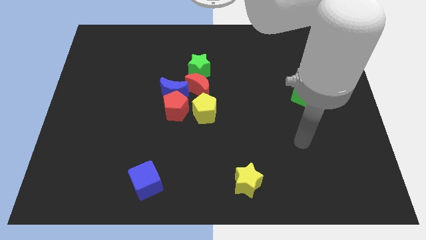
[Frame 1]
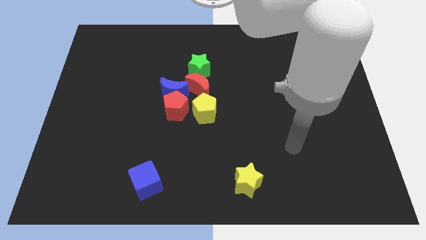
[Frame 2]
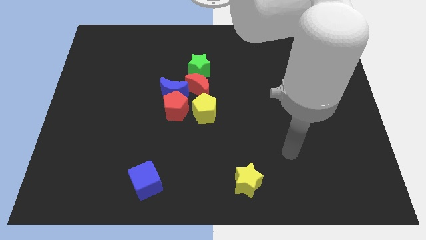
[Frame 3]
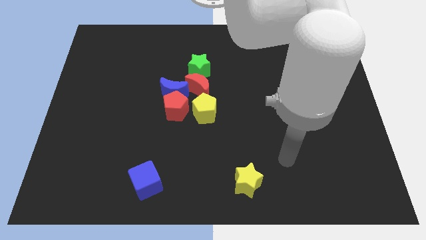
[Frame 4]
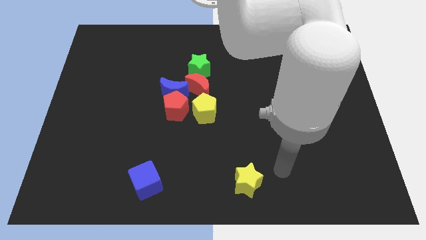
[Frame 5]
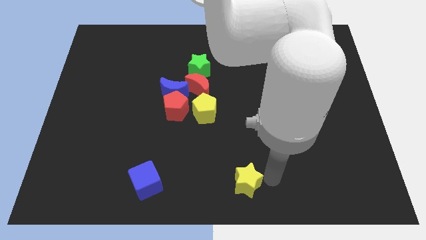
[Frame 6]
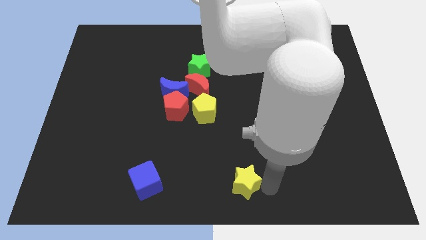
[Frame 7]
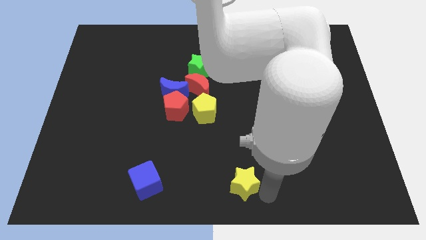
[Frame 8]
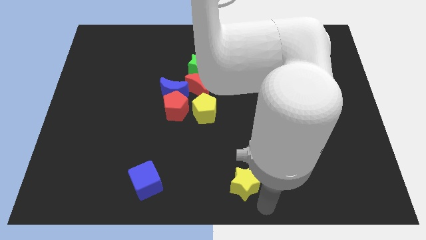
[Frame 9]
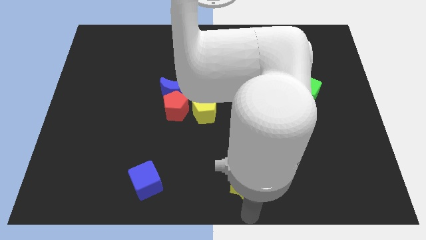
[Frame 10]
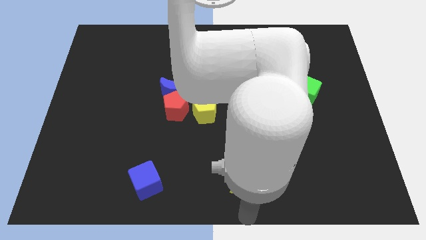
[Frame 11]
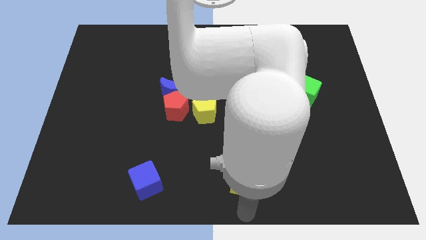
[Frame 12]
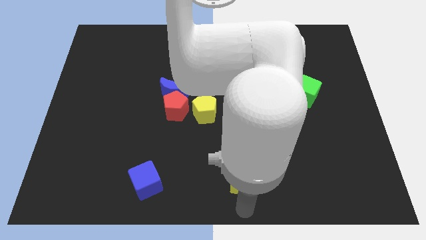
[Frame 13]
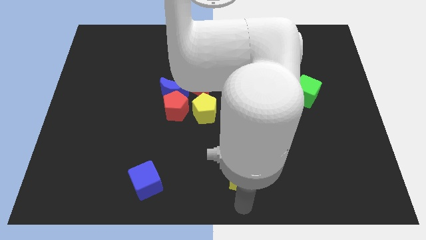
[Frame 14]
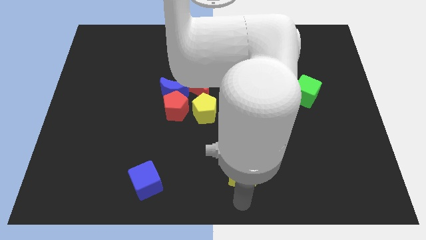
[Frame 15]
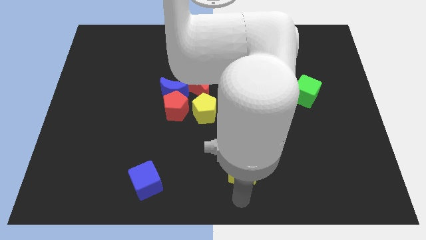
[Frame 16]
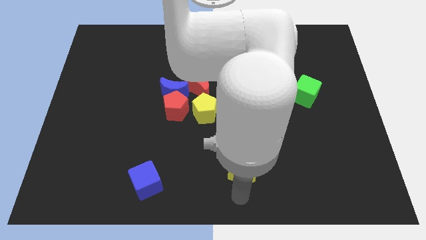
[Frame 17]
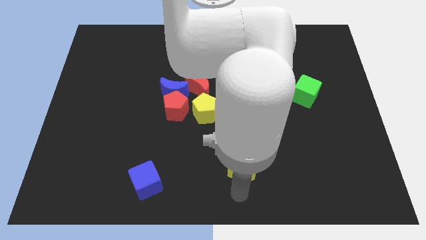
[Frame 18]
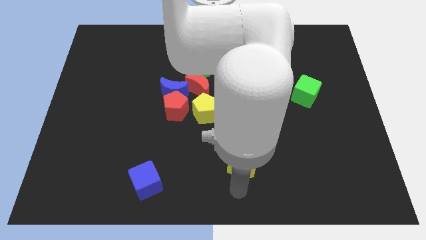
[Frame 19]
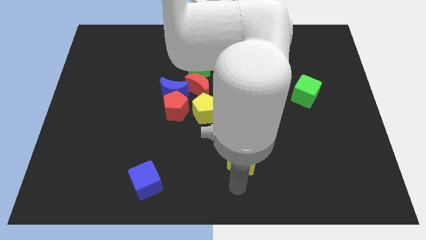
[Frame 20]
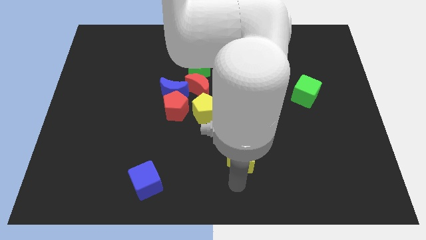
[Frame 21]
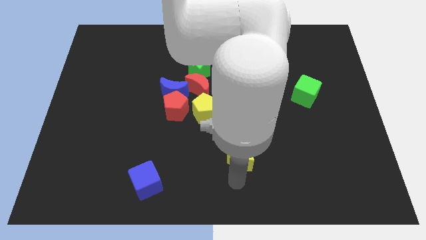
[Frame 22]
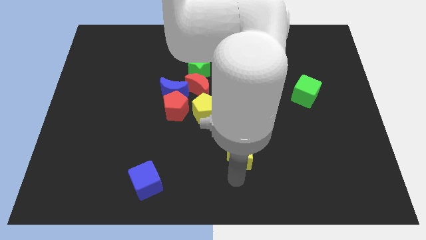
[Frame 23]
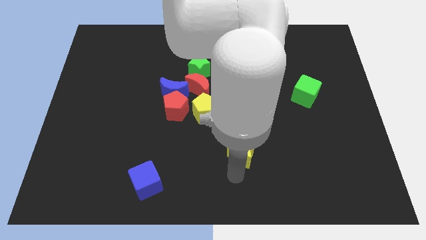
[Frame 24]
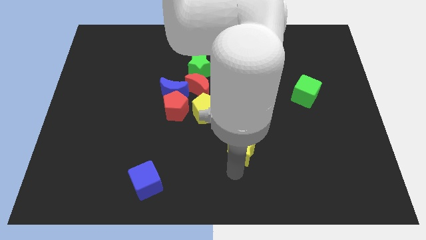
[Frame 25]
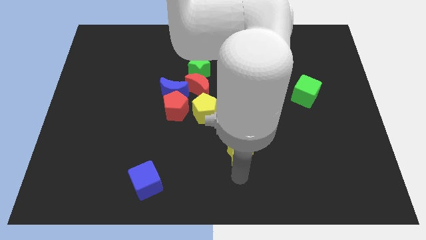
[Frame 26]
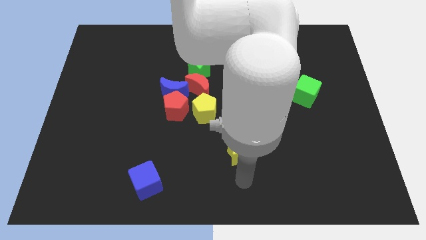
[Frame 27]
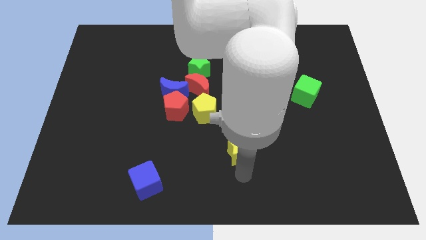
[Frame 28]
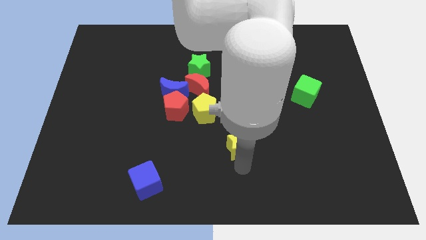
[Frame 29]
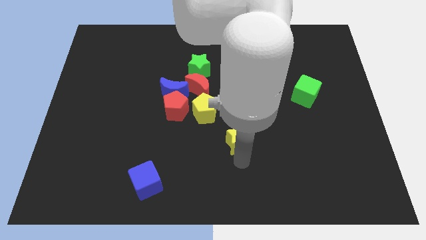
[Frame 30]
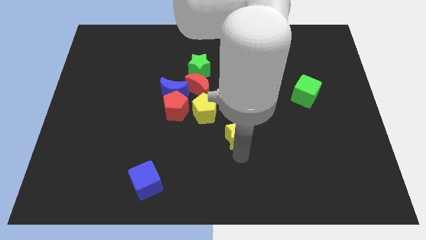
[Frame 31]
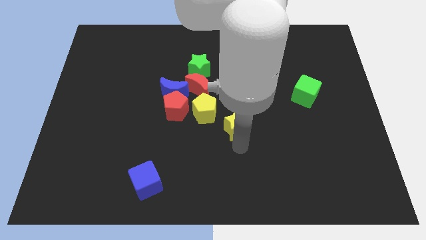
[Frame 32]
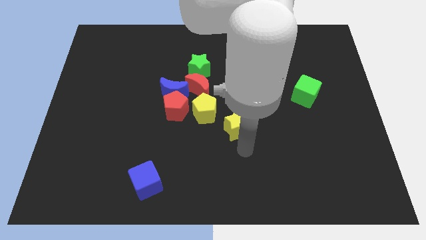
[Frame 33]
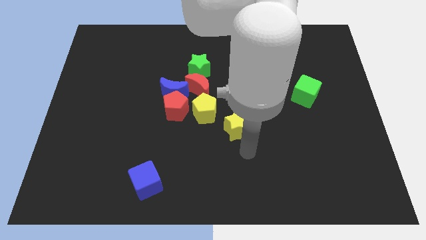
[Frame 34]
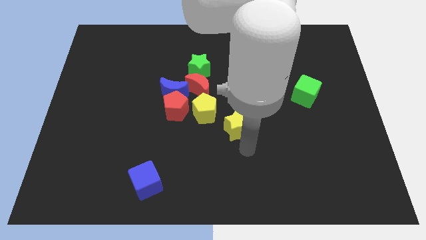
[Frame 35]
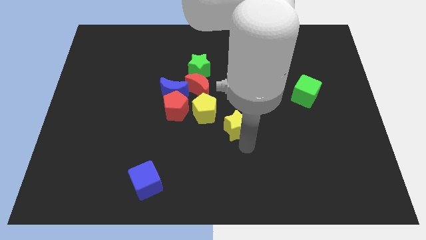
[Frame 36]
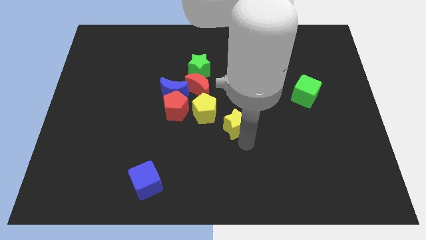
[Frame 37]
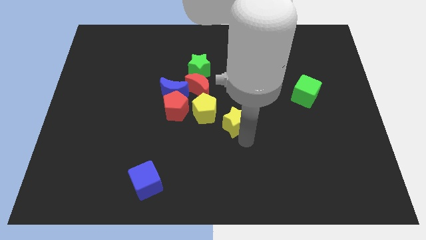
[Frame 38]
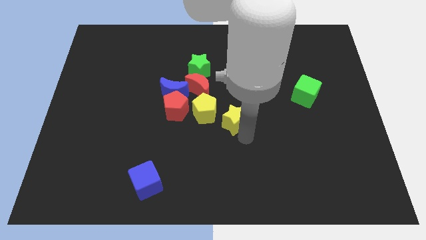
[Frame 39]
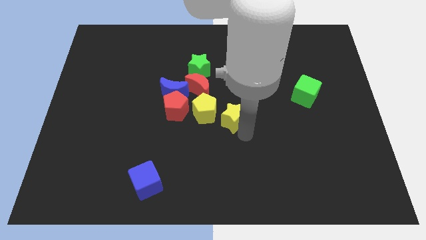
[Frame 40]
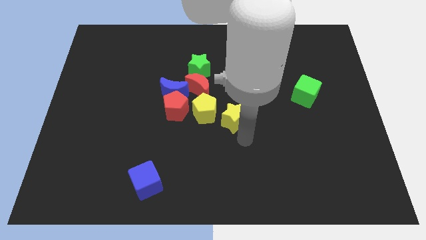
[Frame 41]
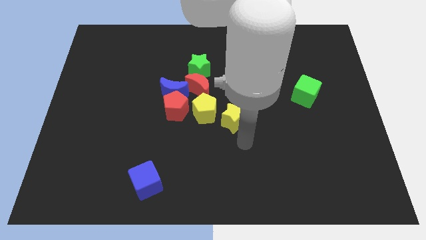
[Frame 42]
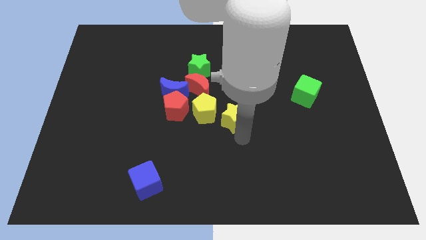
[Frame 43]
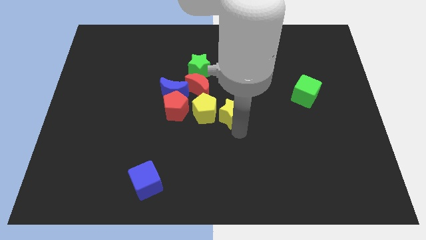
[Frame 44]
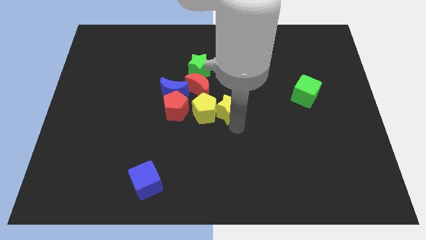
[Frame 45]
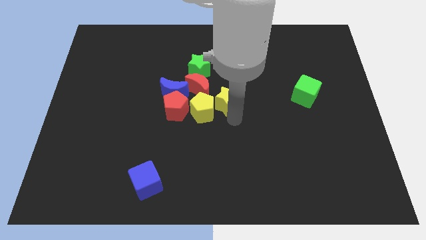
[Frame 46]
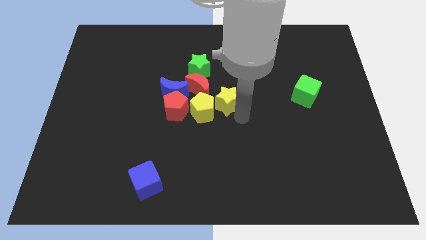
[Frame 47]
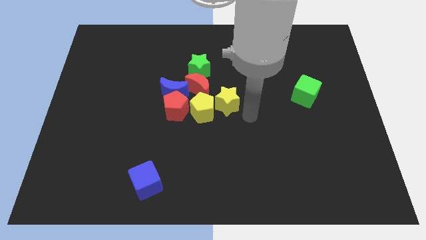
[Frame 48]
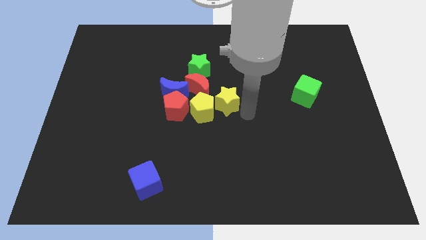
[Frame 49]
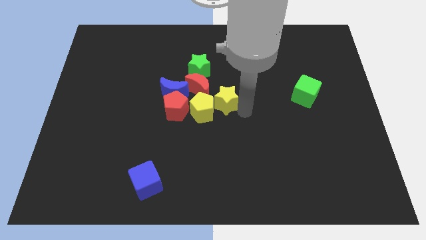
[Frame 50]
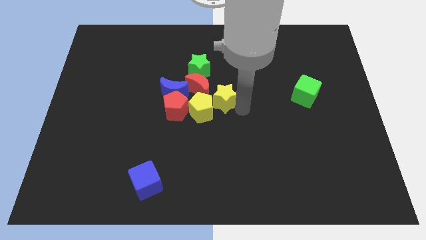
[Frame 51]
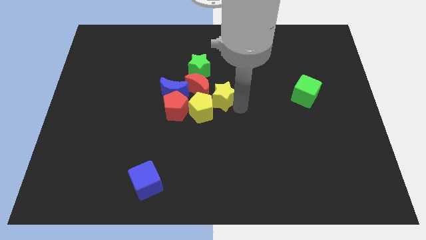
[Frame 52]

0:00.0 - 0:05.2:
slide the yellow star next to the red moon

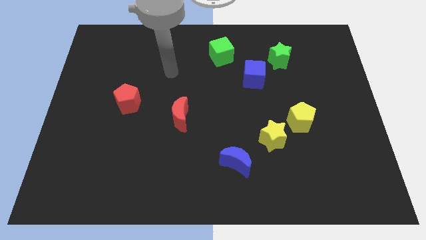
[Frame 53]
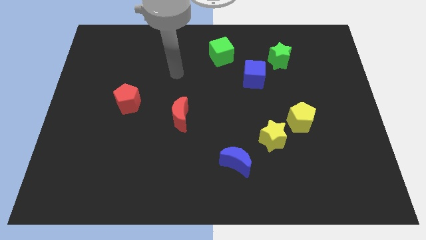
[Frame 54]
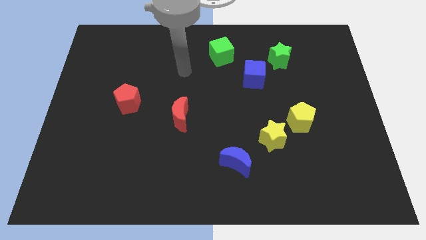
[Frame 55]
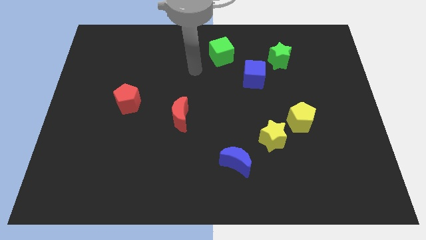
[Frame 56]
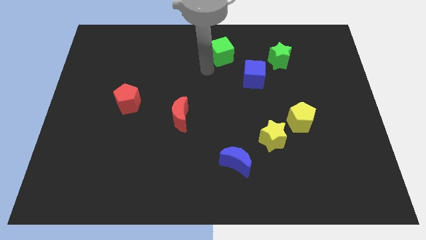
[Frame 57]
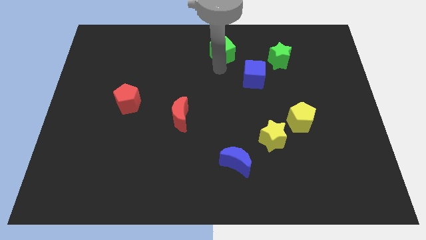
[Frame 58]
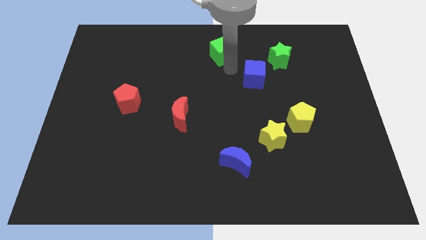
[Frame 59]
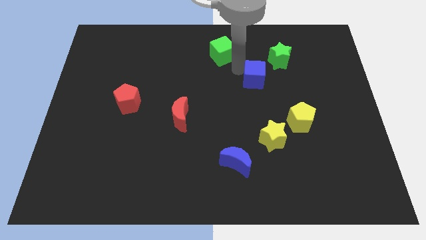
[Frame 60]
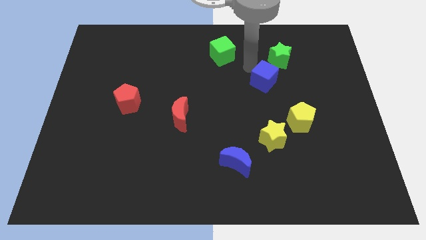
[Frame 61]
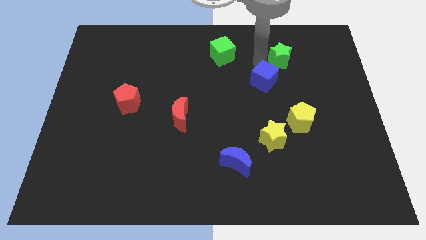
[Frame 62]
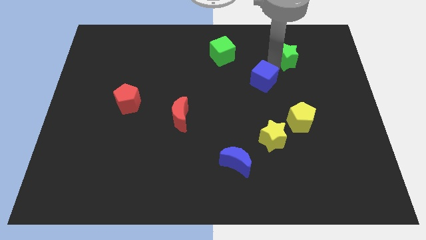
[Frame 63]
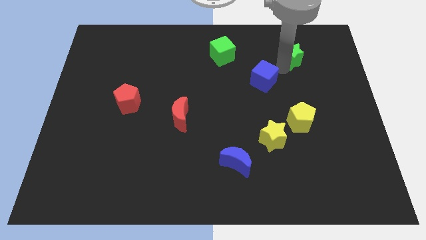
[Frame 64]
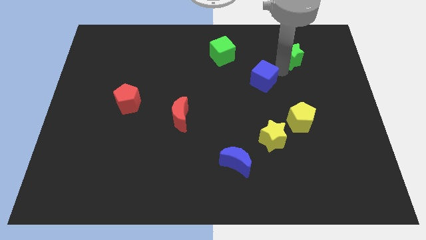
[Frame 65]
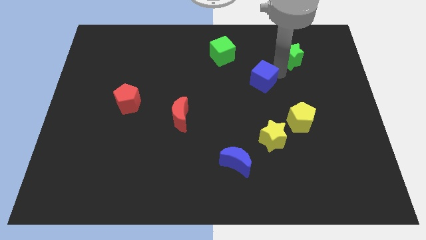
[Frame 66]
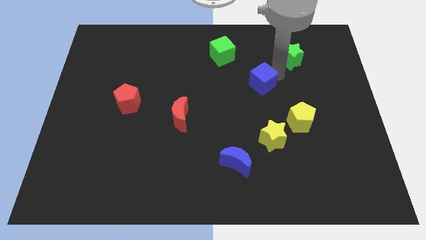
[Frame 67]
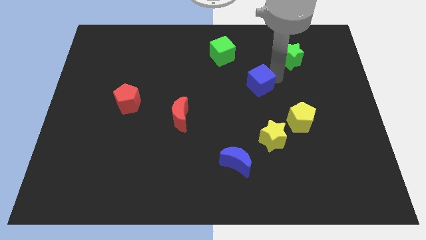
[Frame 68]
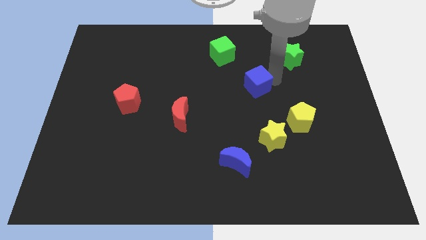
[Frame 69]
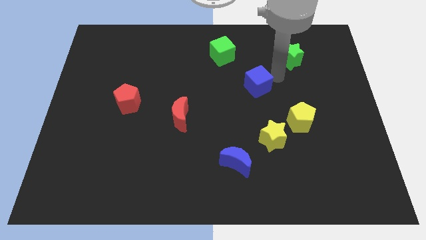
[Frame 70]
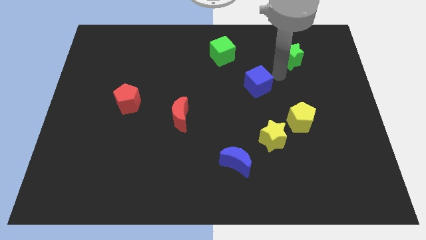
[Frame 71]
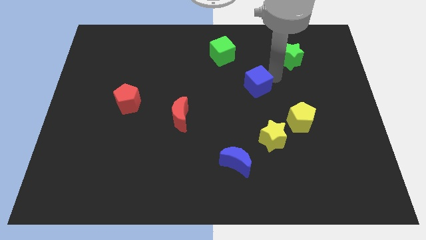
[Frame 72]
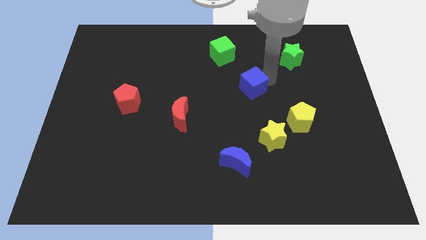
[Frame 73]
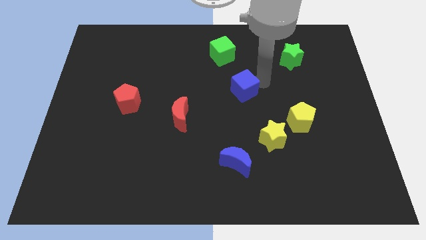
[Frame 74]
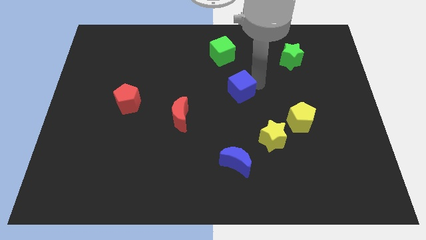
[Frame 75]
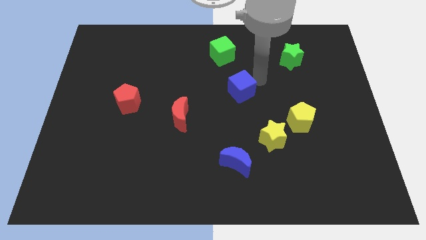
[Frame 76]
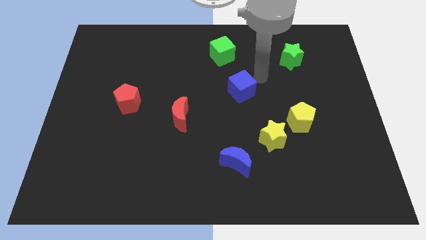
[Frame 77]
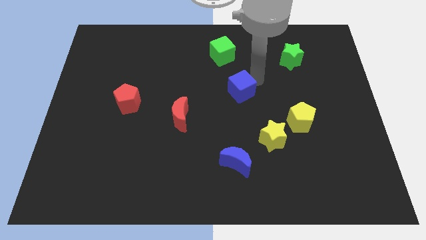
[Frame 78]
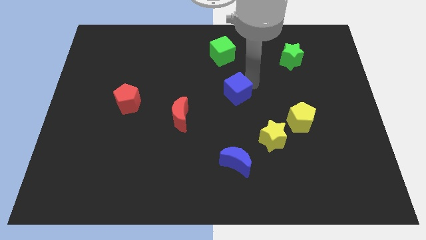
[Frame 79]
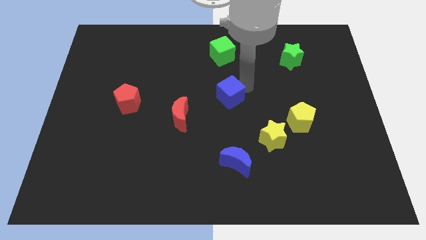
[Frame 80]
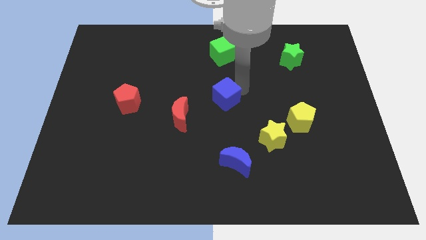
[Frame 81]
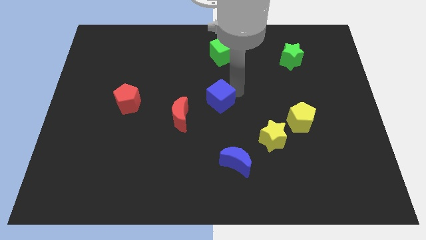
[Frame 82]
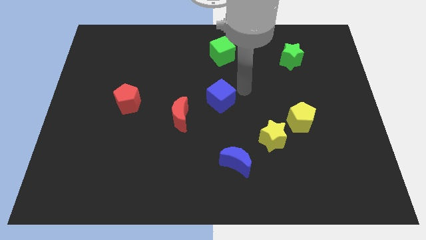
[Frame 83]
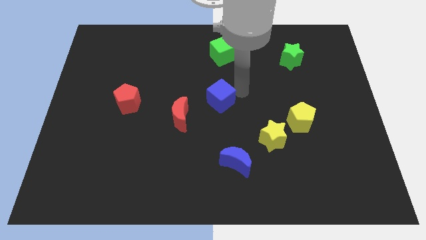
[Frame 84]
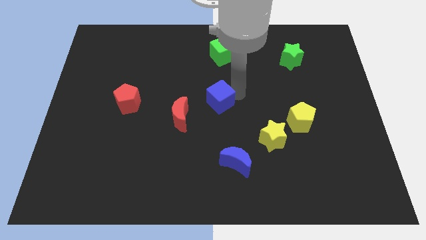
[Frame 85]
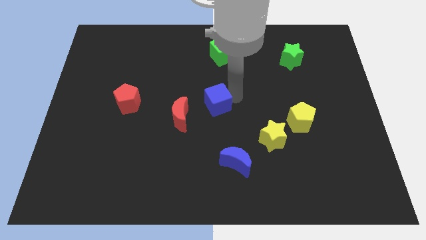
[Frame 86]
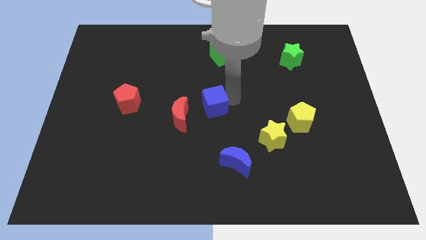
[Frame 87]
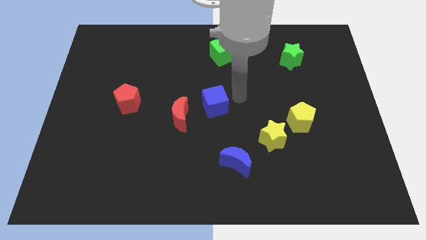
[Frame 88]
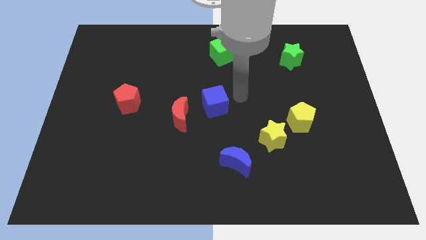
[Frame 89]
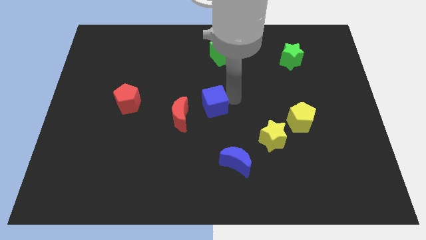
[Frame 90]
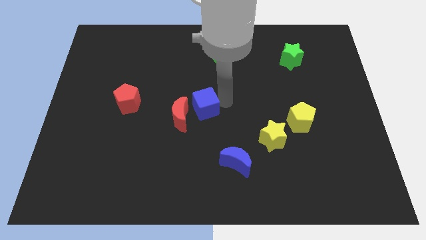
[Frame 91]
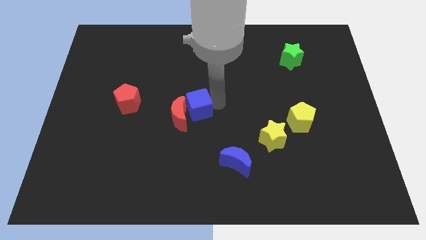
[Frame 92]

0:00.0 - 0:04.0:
slide the blue cube close to the red moon
